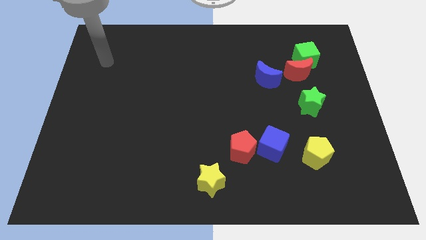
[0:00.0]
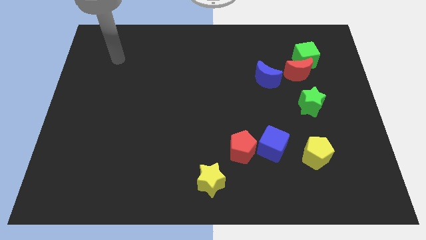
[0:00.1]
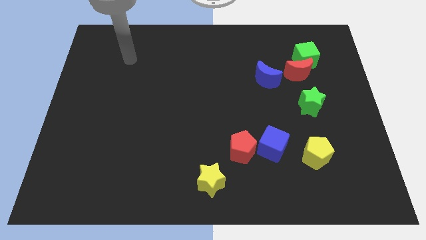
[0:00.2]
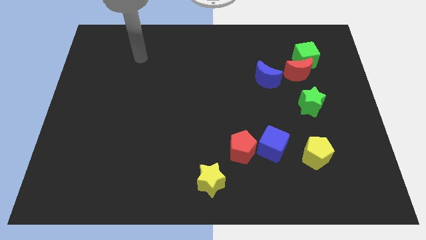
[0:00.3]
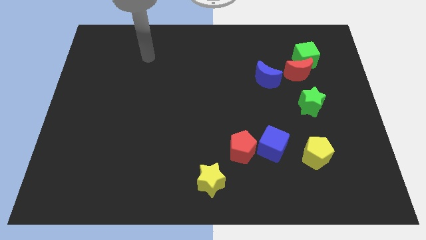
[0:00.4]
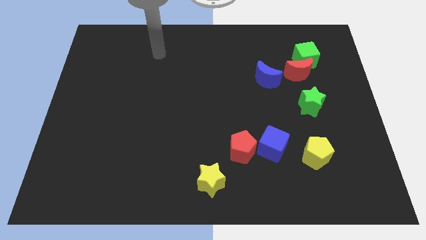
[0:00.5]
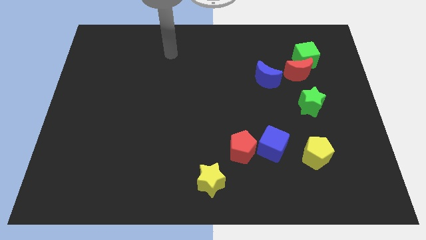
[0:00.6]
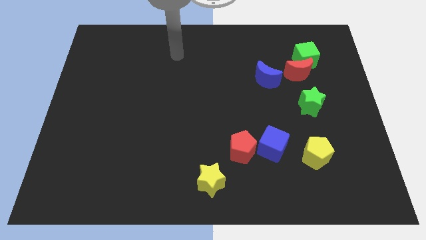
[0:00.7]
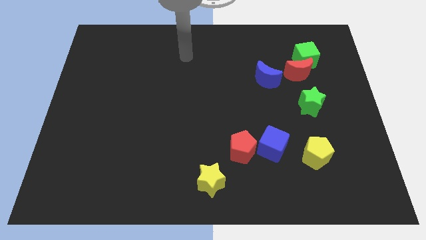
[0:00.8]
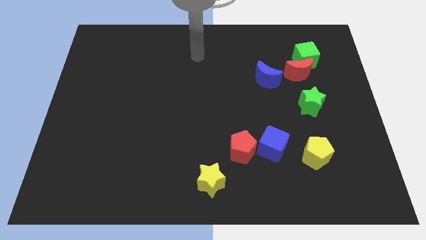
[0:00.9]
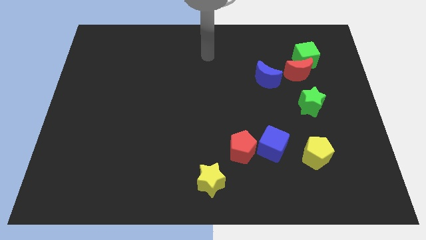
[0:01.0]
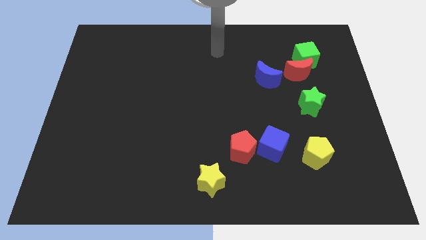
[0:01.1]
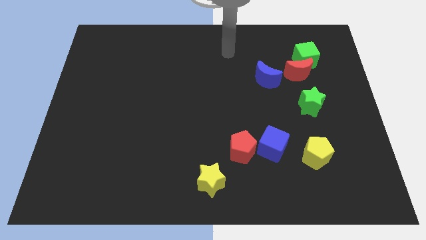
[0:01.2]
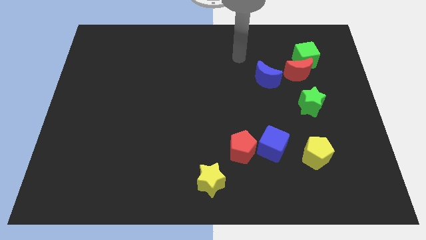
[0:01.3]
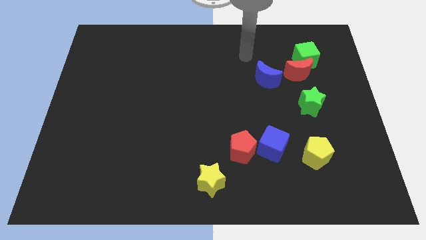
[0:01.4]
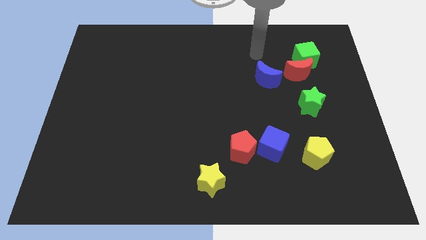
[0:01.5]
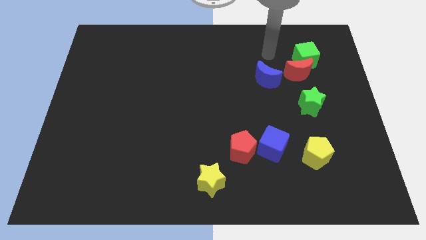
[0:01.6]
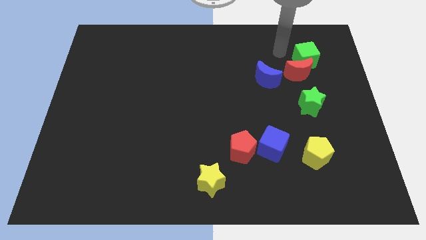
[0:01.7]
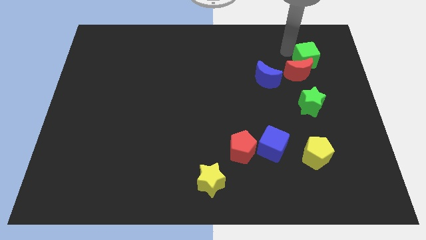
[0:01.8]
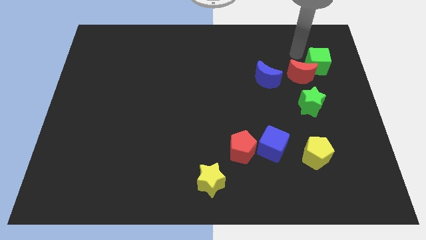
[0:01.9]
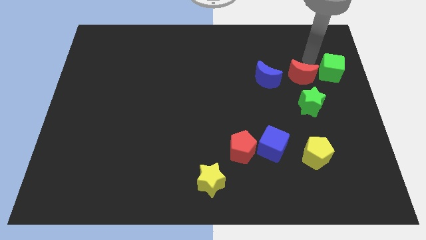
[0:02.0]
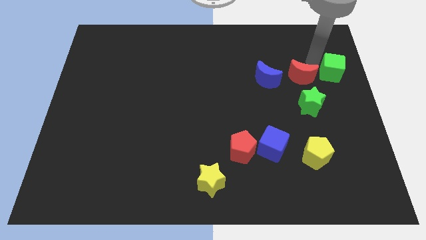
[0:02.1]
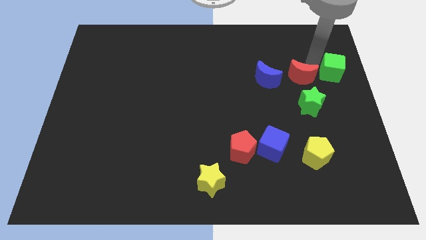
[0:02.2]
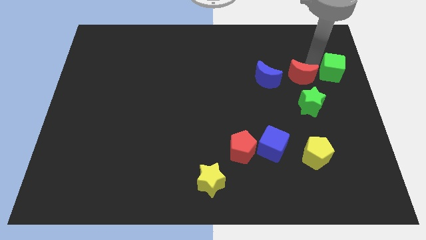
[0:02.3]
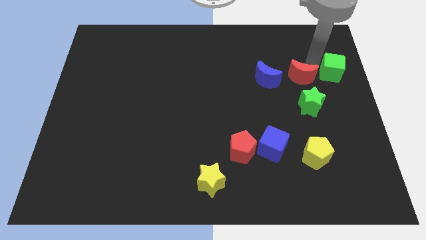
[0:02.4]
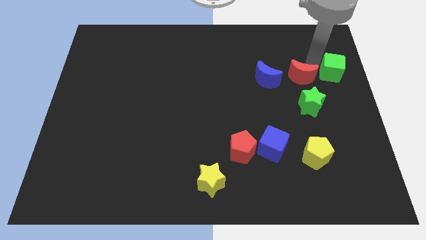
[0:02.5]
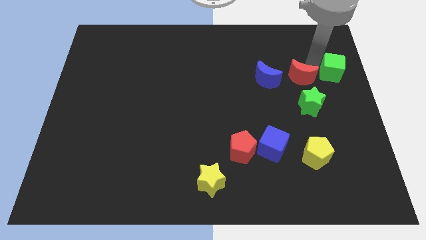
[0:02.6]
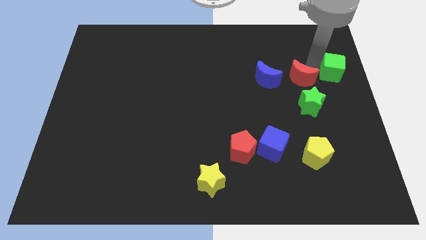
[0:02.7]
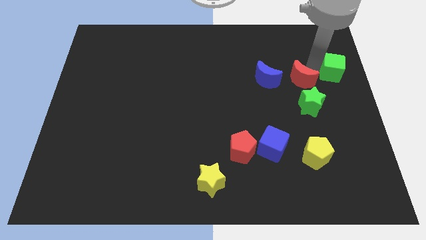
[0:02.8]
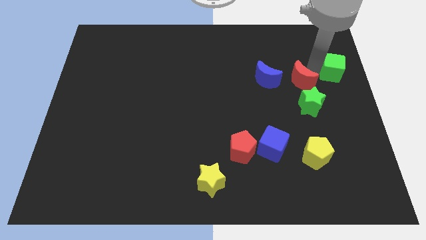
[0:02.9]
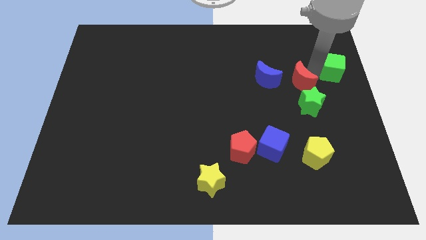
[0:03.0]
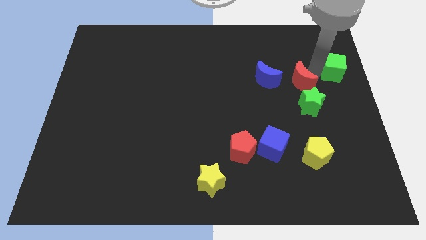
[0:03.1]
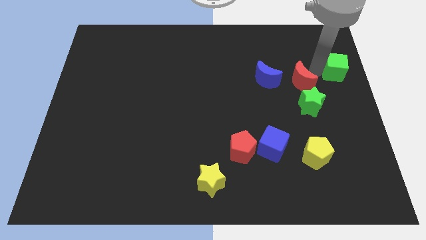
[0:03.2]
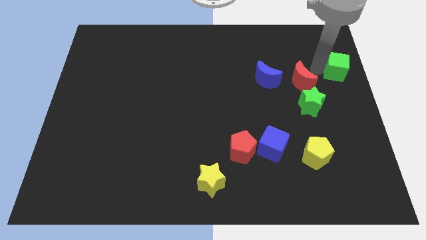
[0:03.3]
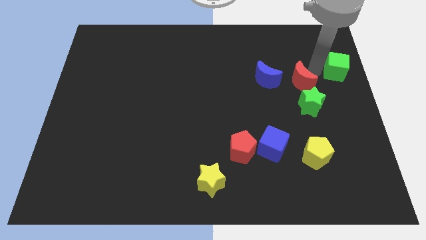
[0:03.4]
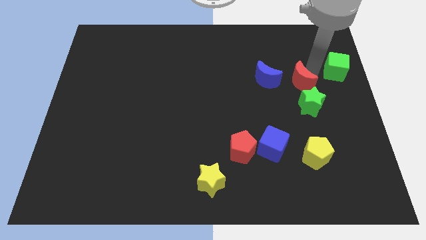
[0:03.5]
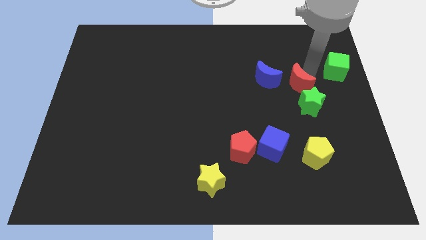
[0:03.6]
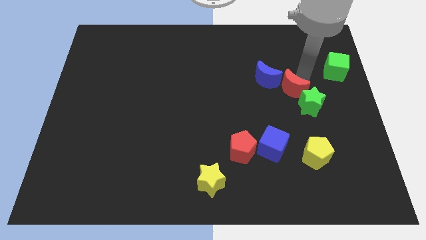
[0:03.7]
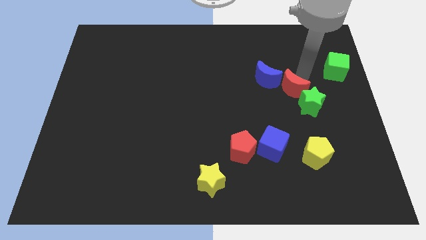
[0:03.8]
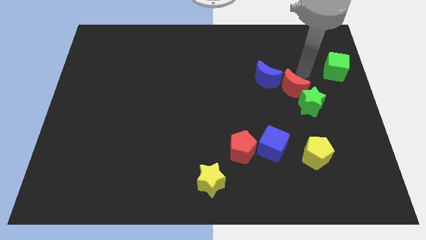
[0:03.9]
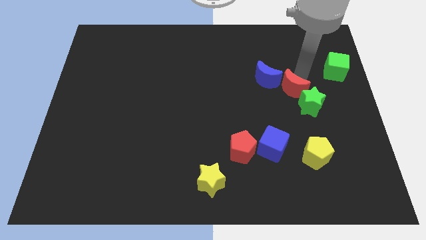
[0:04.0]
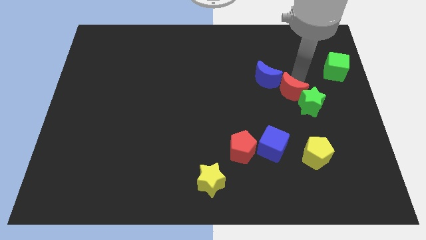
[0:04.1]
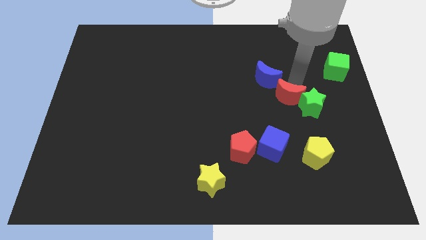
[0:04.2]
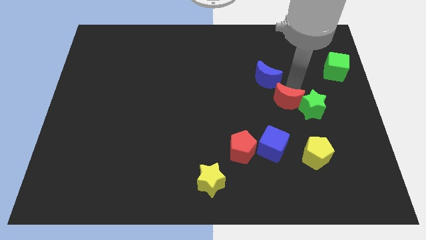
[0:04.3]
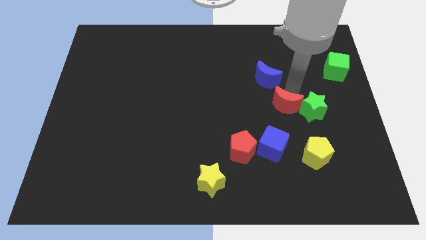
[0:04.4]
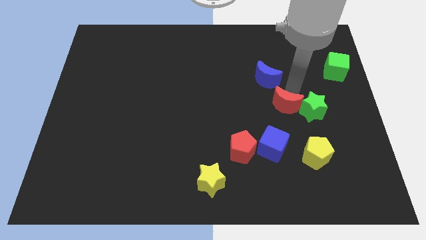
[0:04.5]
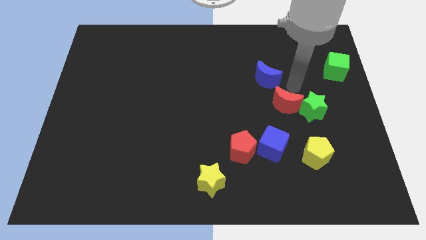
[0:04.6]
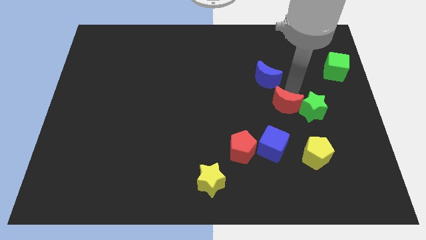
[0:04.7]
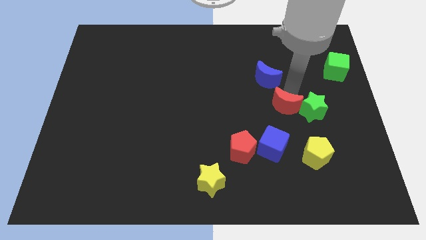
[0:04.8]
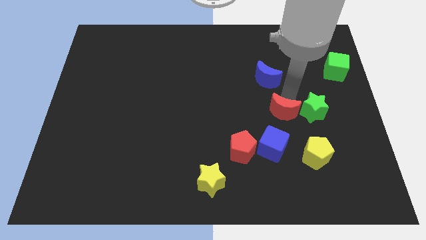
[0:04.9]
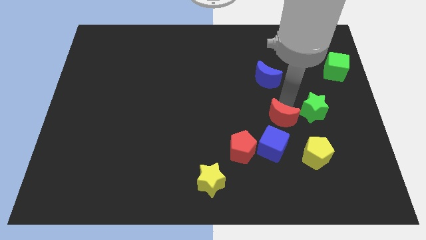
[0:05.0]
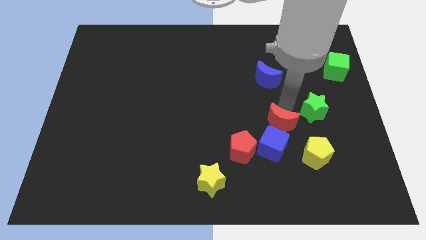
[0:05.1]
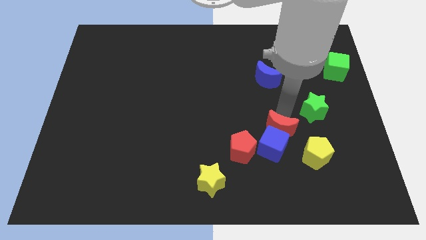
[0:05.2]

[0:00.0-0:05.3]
push the red moon close to the blue cube

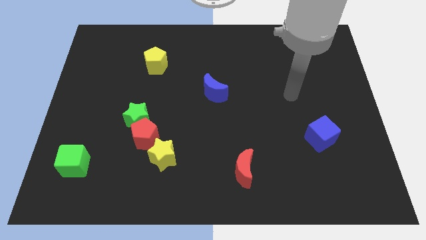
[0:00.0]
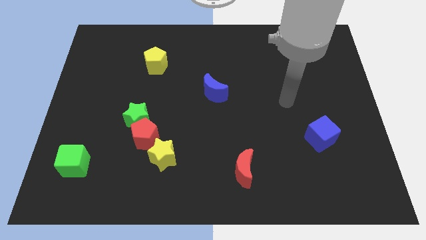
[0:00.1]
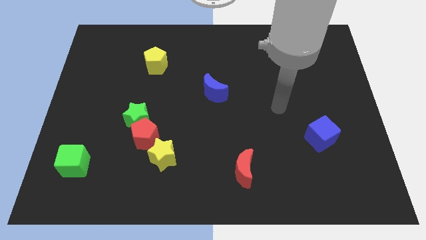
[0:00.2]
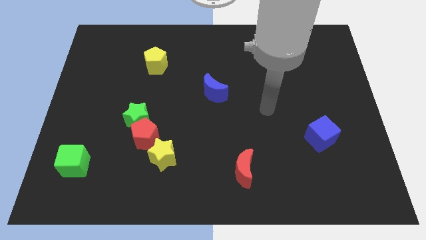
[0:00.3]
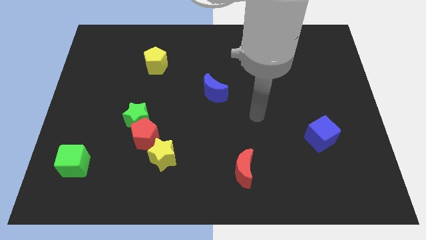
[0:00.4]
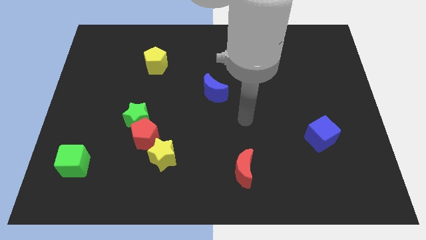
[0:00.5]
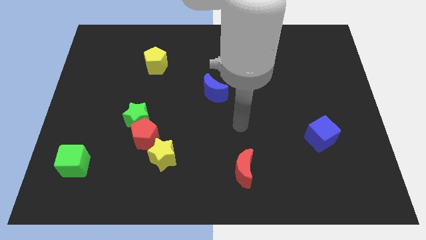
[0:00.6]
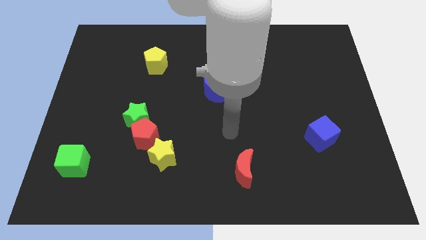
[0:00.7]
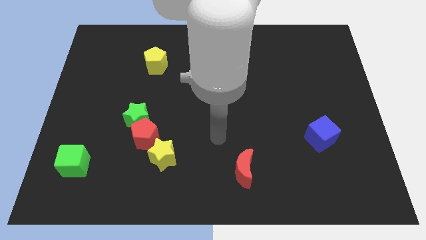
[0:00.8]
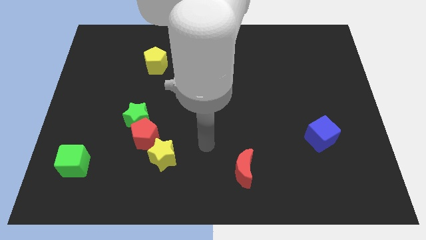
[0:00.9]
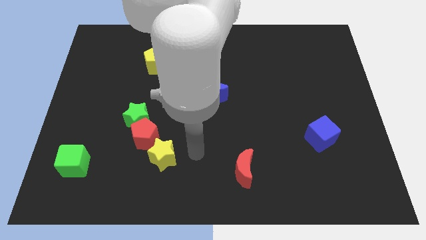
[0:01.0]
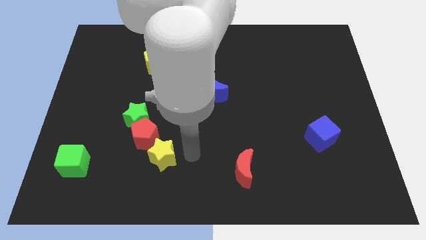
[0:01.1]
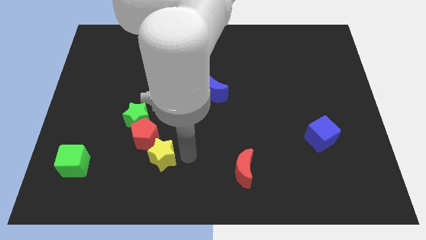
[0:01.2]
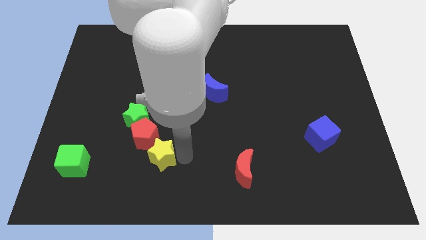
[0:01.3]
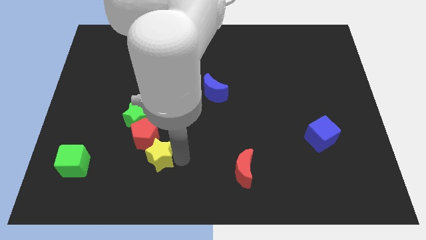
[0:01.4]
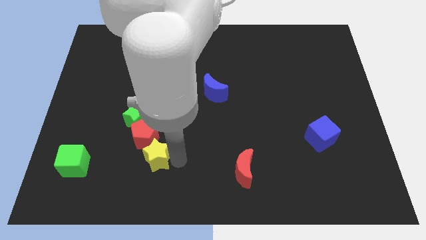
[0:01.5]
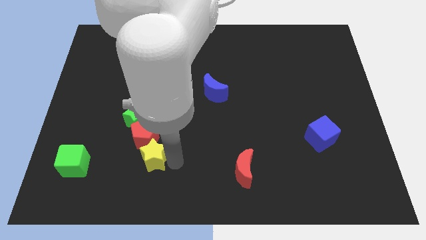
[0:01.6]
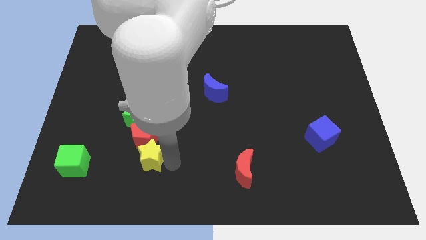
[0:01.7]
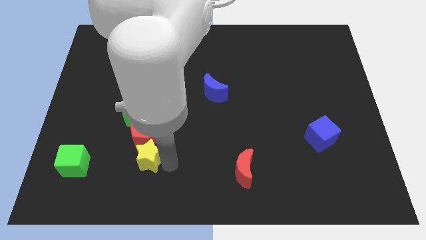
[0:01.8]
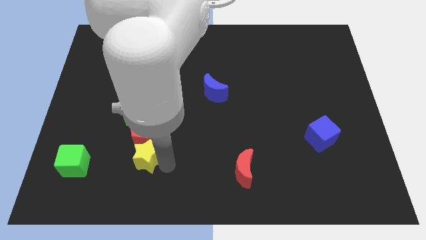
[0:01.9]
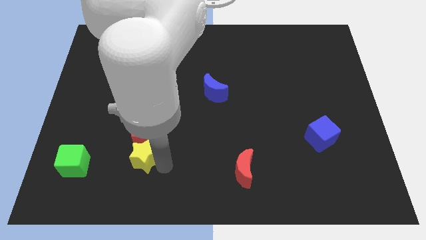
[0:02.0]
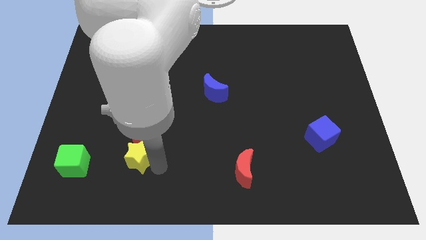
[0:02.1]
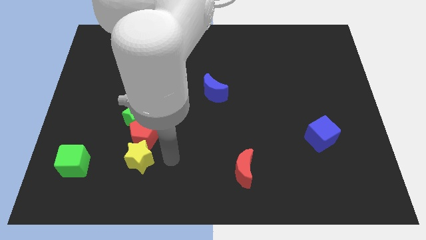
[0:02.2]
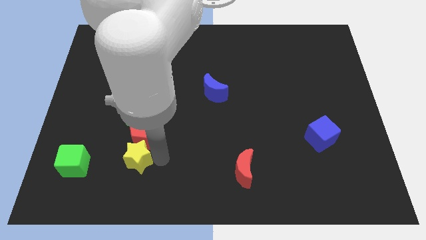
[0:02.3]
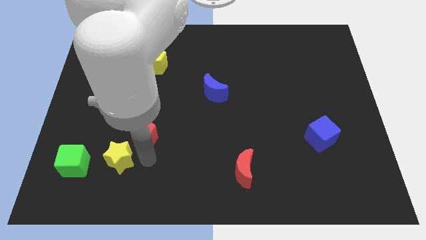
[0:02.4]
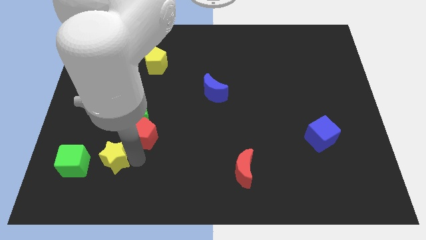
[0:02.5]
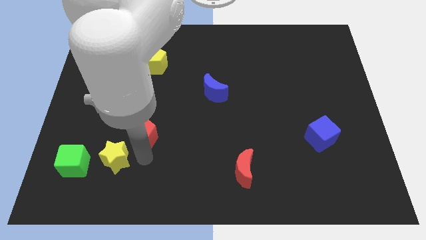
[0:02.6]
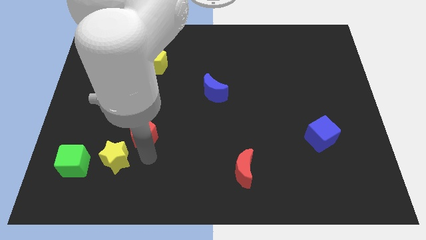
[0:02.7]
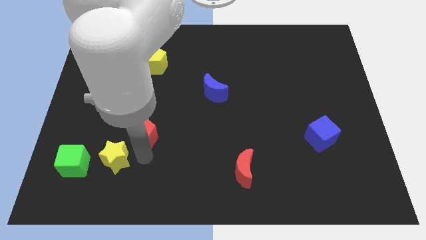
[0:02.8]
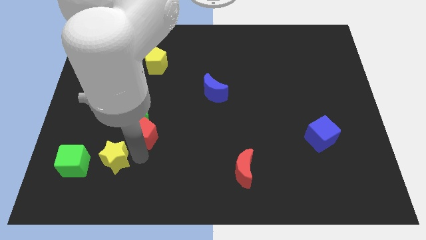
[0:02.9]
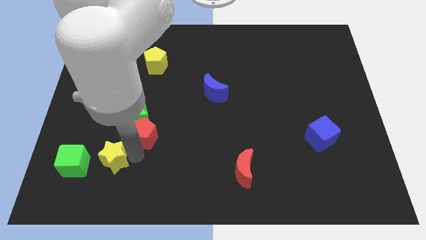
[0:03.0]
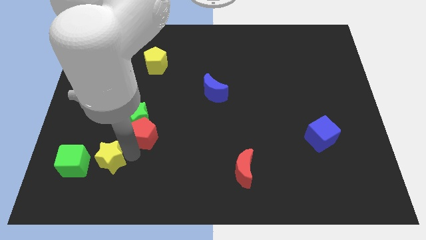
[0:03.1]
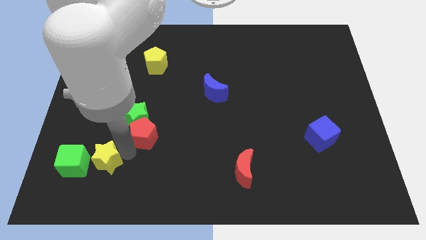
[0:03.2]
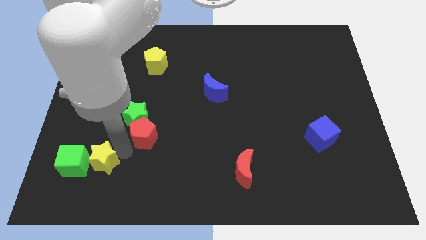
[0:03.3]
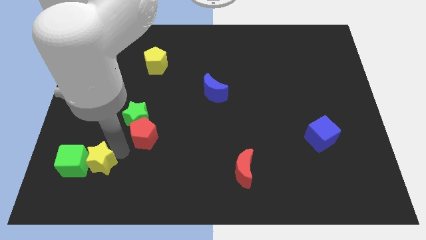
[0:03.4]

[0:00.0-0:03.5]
slide the yellow star close to the green cube
